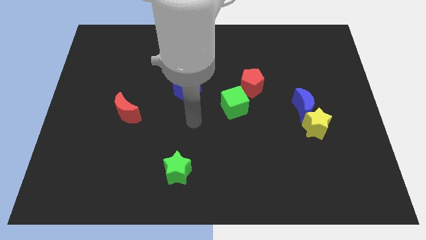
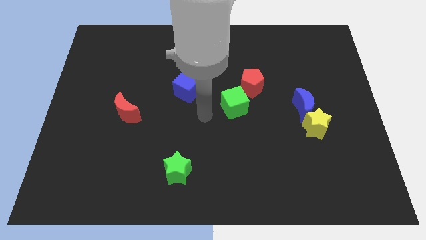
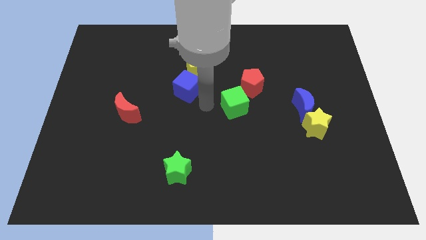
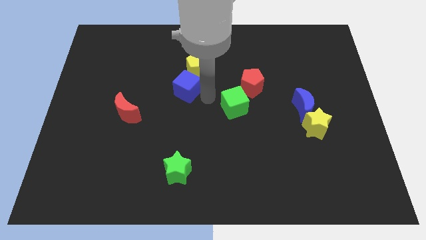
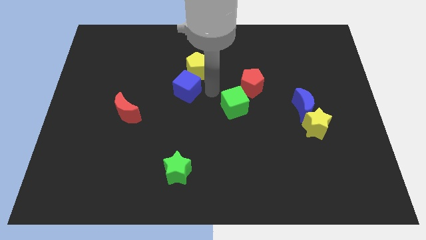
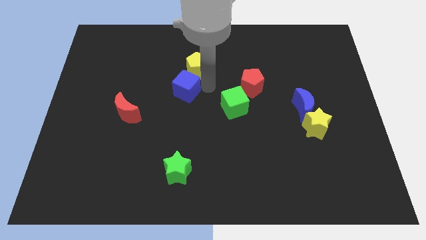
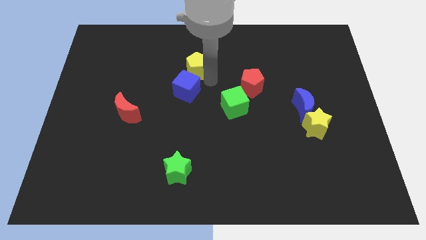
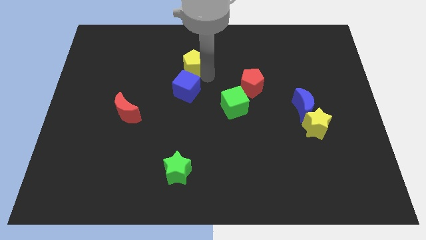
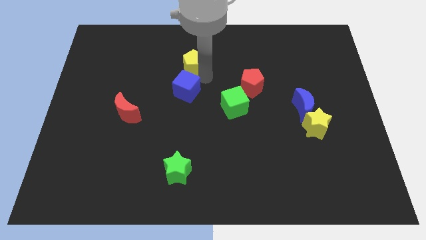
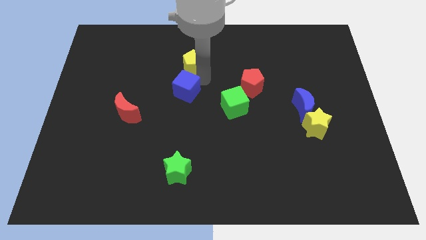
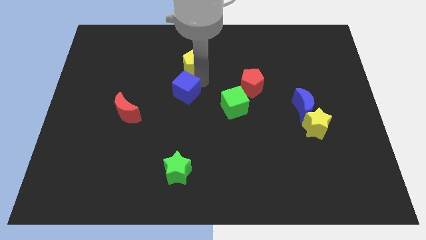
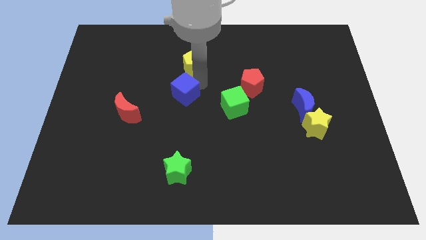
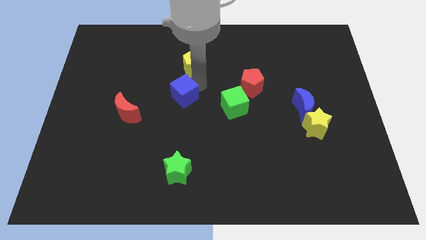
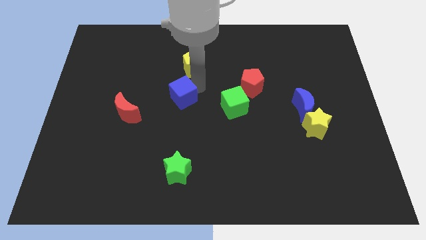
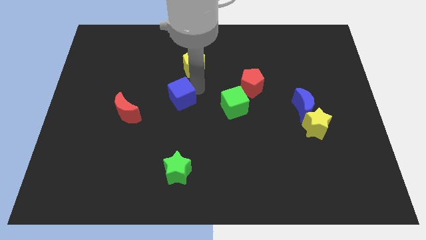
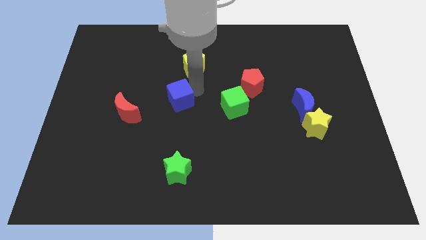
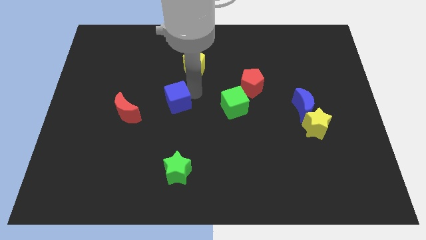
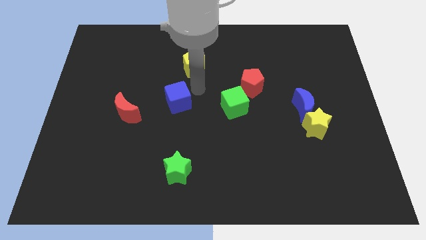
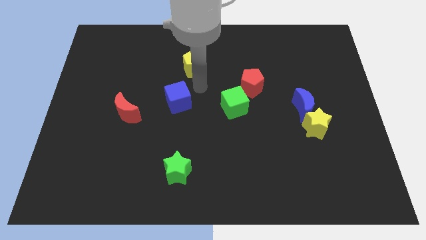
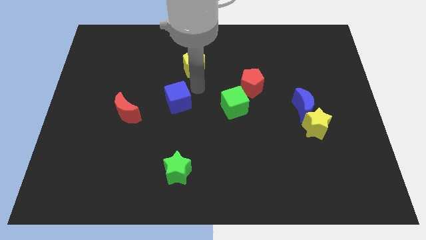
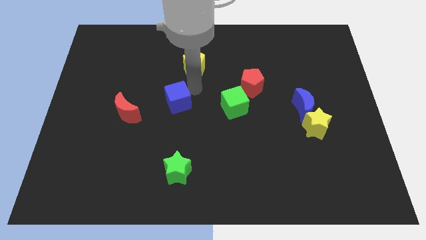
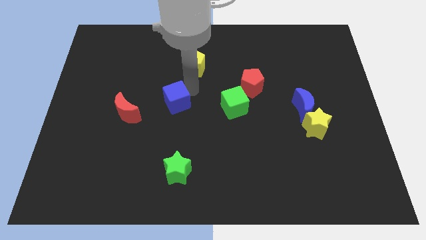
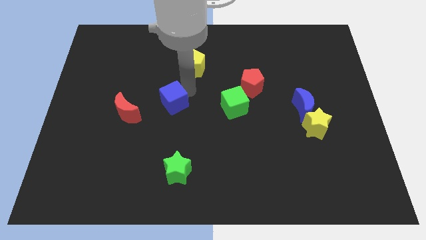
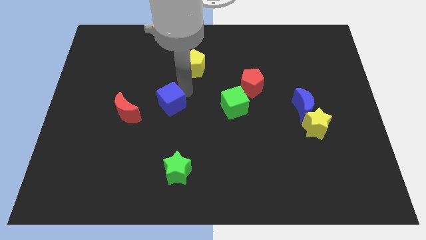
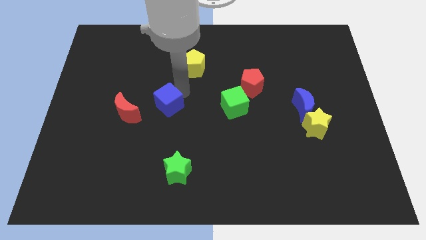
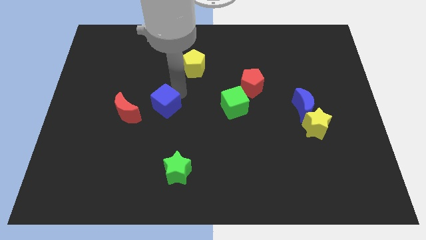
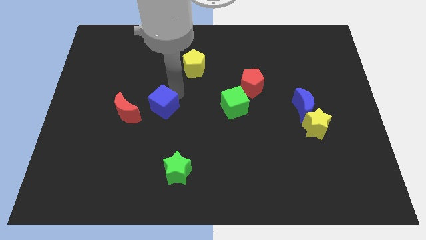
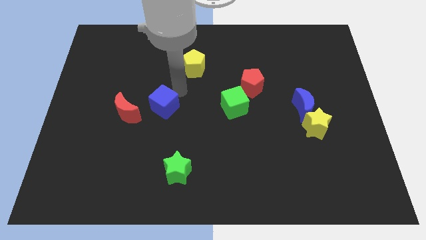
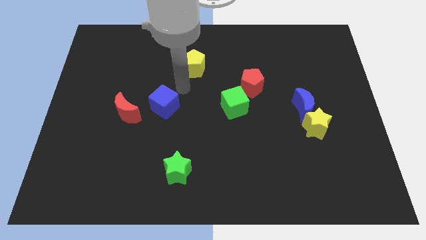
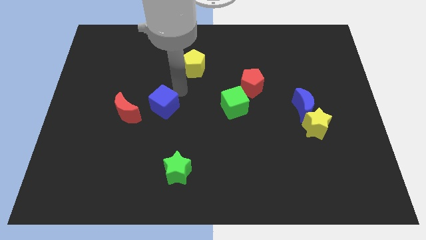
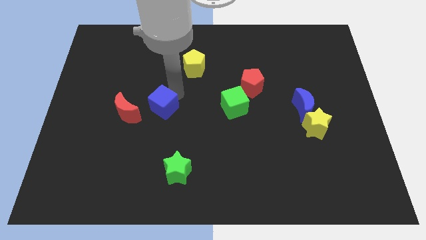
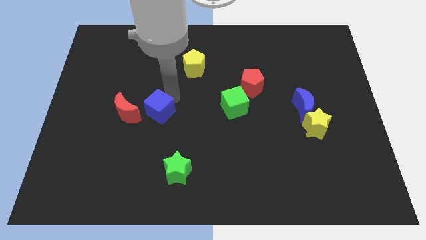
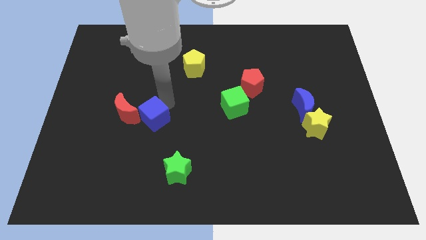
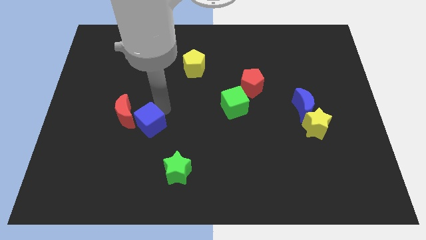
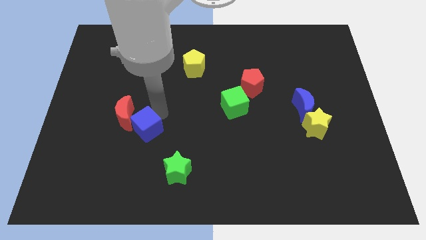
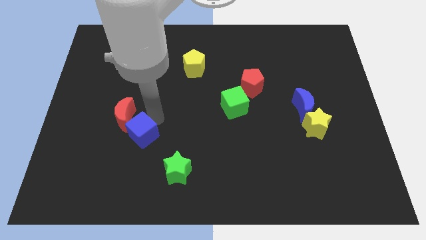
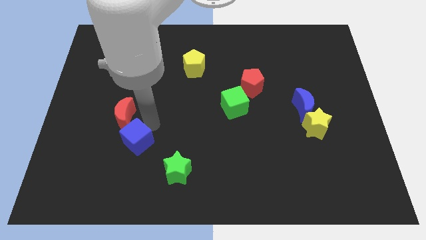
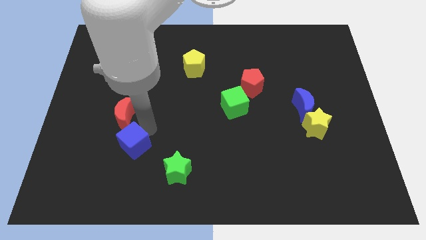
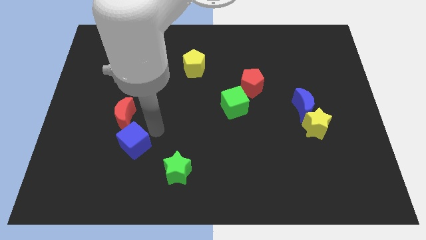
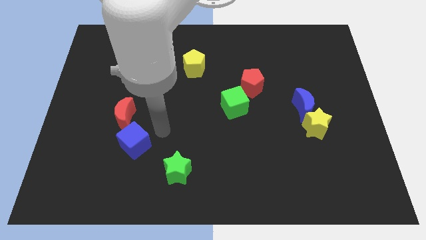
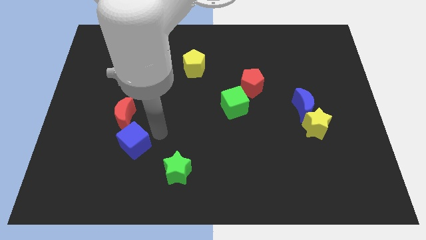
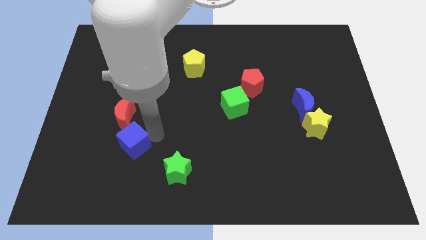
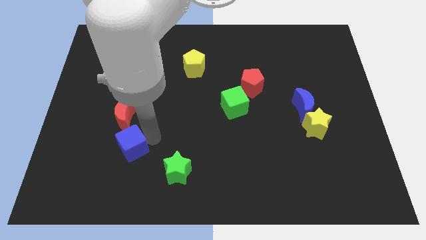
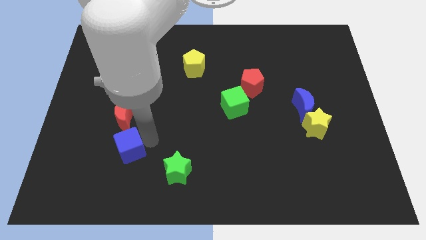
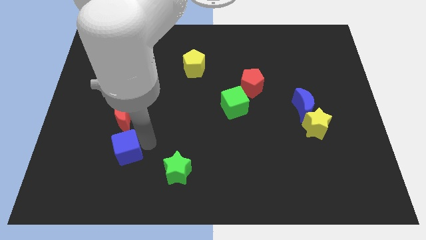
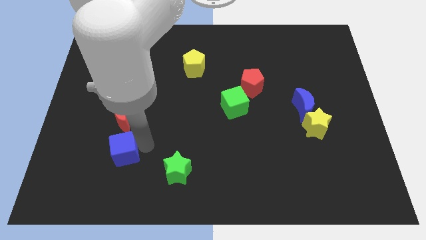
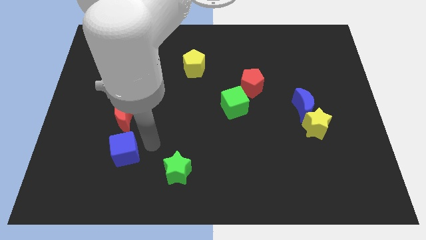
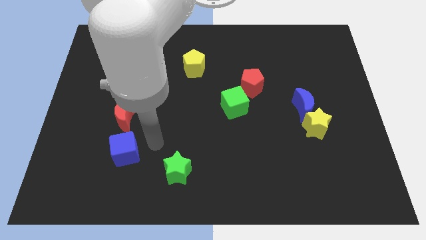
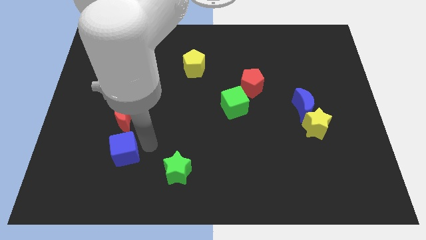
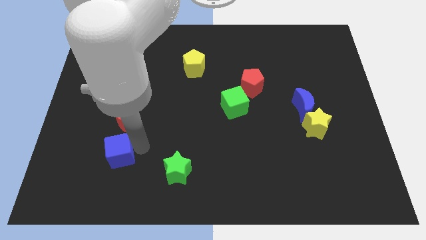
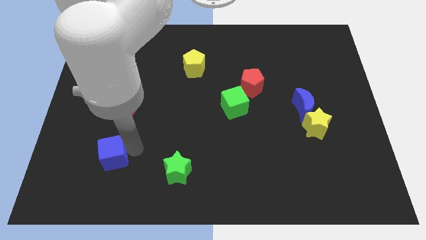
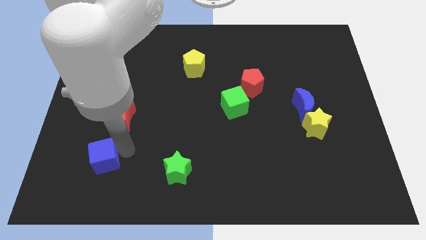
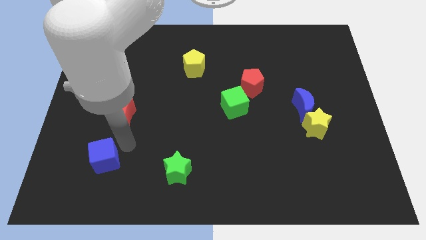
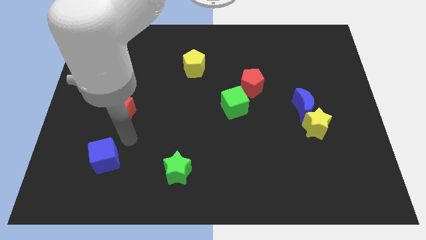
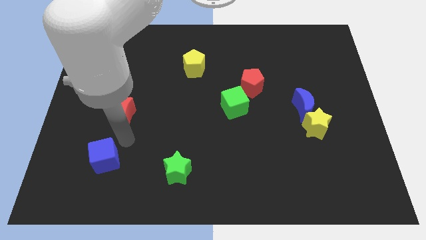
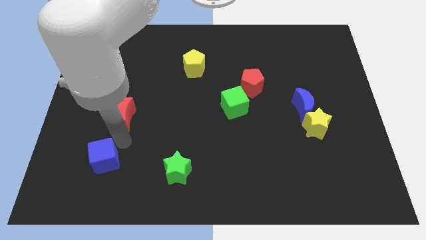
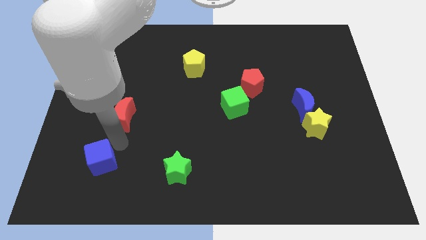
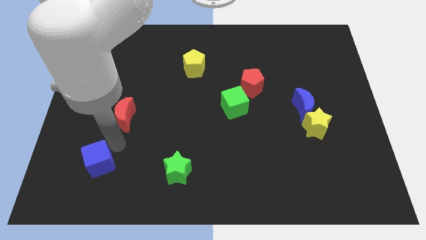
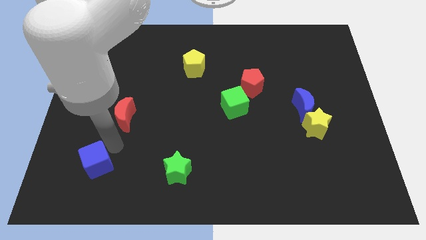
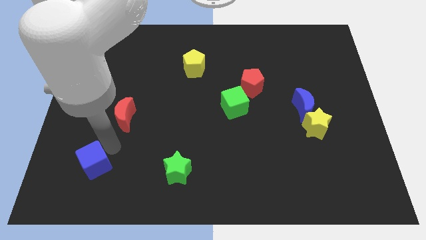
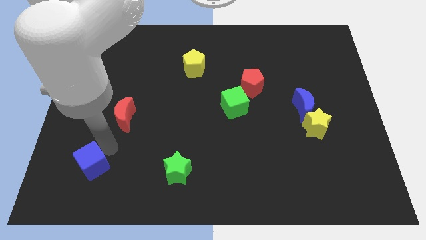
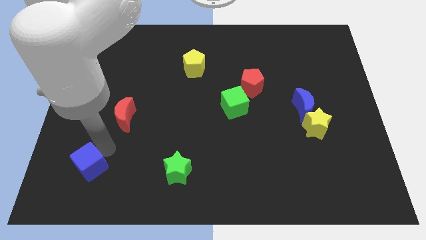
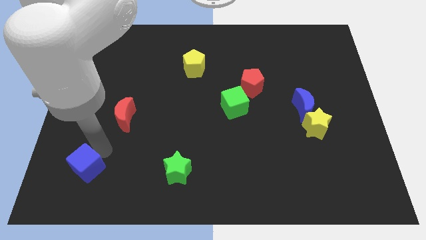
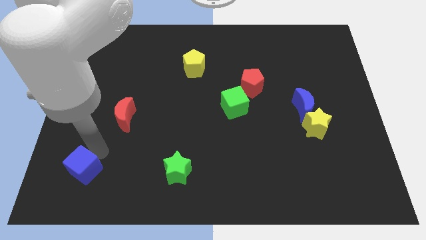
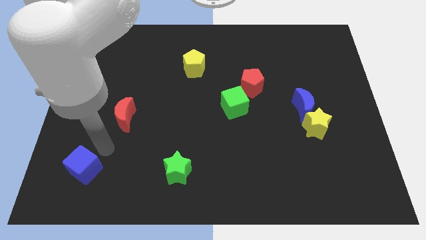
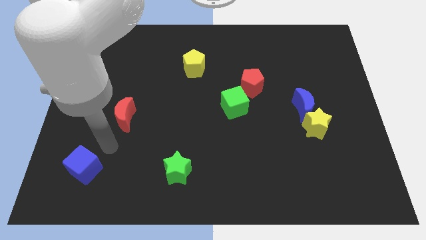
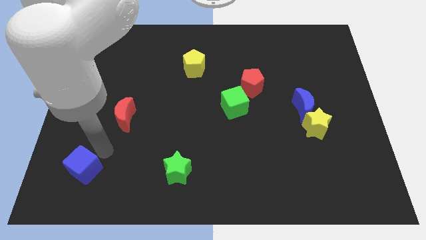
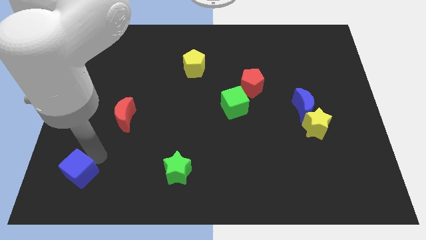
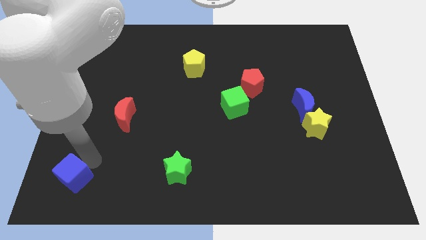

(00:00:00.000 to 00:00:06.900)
move the blue cube to the bottom left
